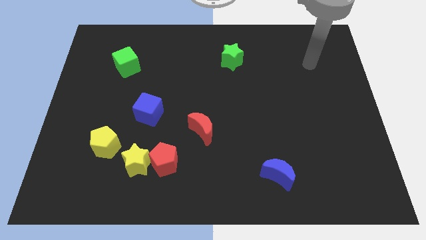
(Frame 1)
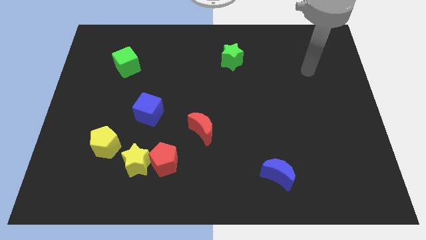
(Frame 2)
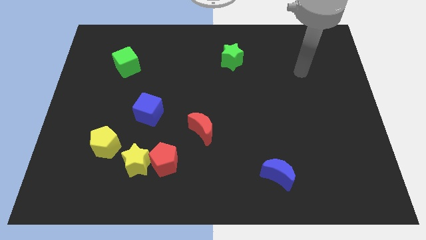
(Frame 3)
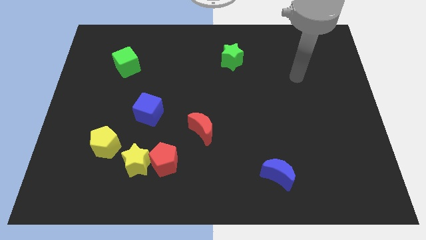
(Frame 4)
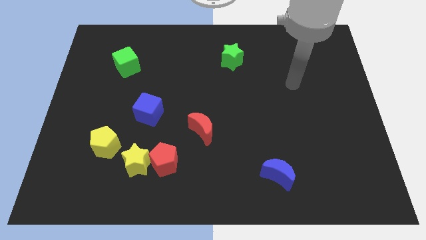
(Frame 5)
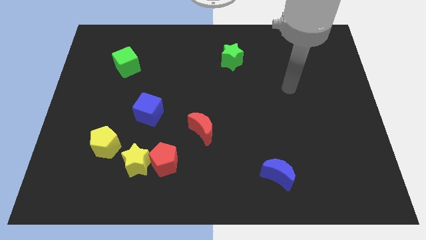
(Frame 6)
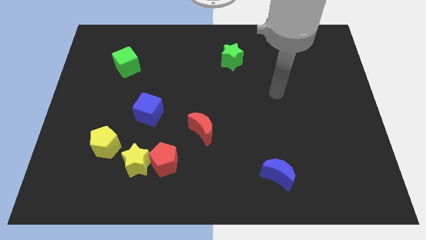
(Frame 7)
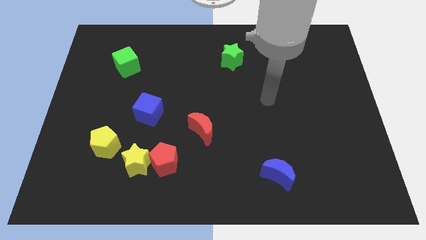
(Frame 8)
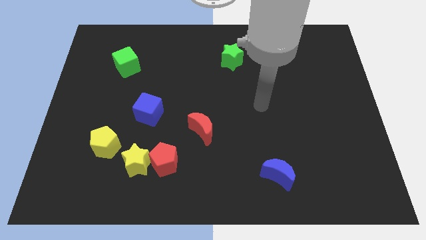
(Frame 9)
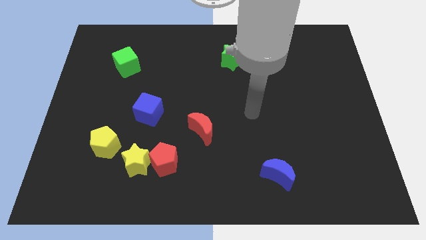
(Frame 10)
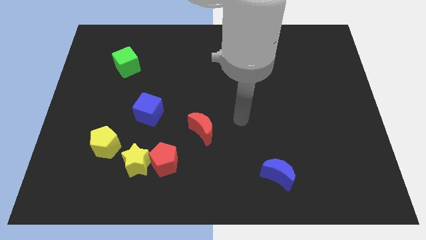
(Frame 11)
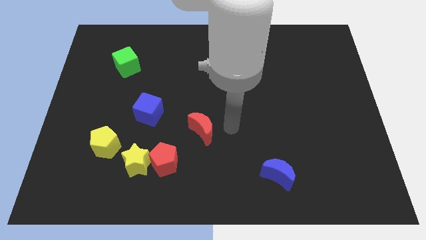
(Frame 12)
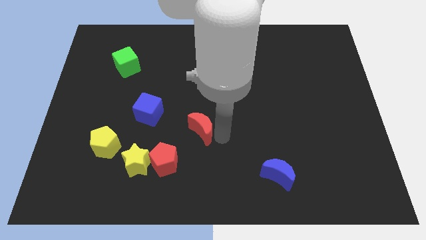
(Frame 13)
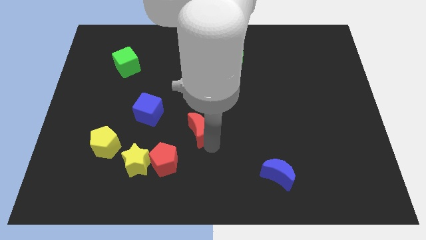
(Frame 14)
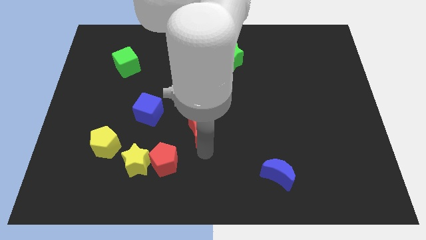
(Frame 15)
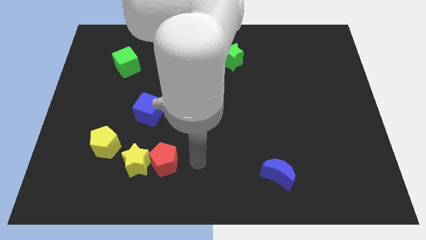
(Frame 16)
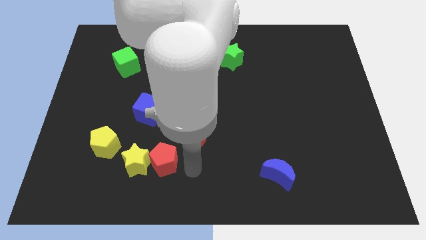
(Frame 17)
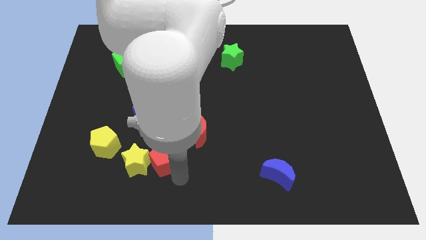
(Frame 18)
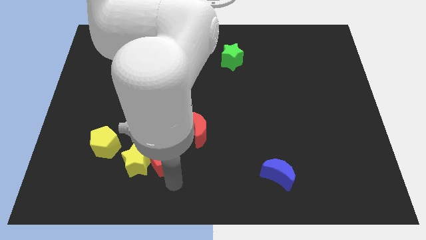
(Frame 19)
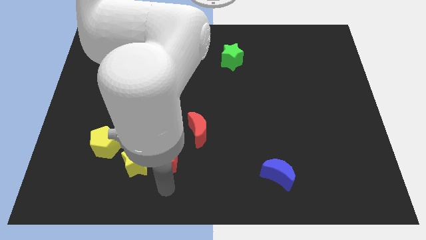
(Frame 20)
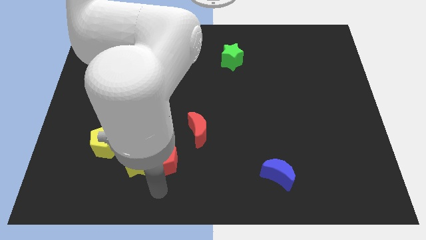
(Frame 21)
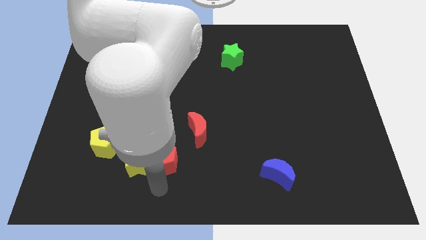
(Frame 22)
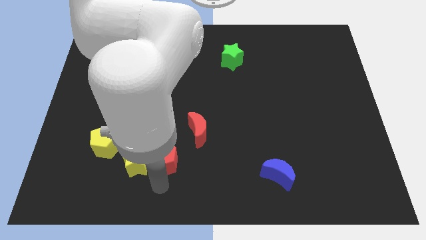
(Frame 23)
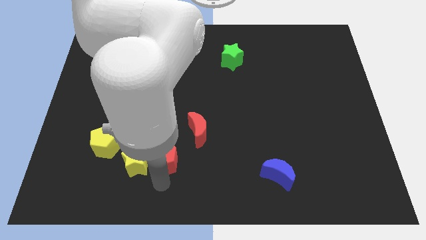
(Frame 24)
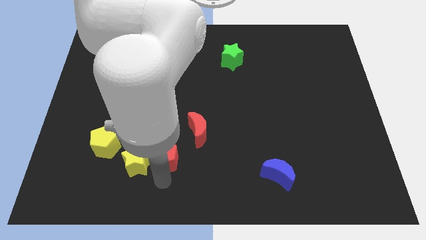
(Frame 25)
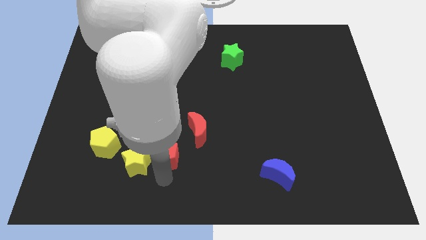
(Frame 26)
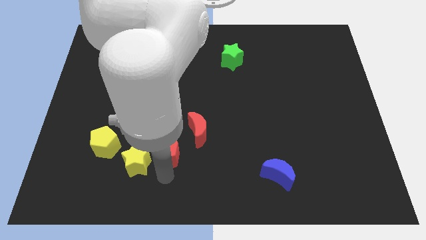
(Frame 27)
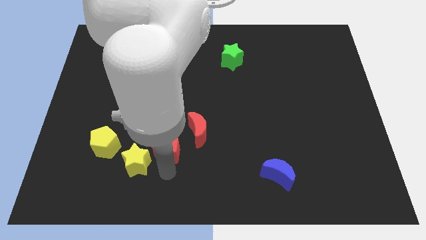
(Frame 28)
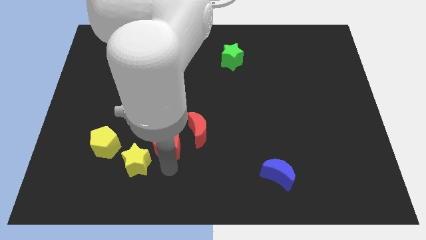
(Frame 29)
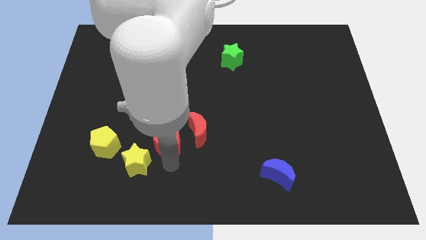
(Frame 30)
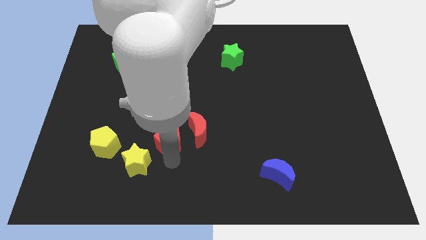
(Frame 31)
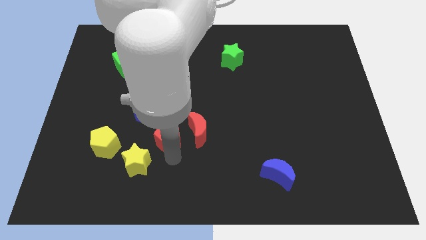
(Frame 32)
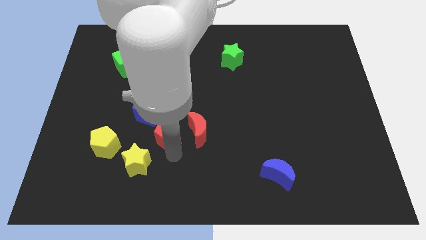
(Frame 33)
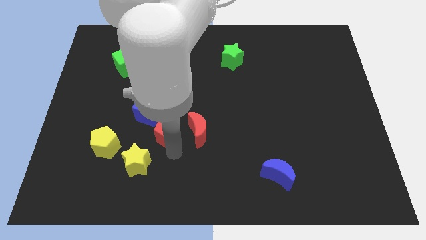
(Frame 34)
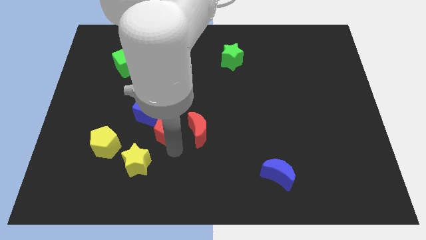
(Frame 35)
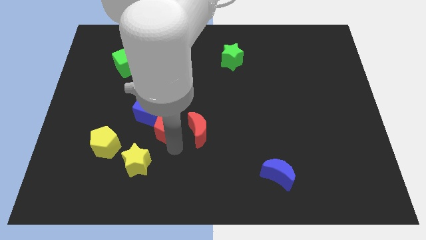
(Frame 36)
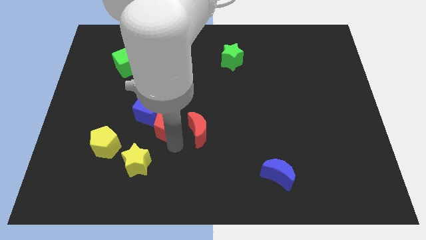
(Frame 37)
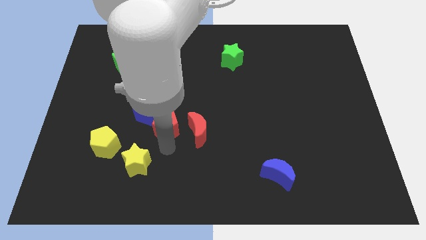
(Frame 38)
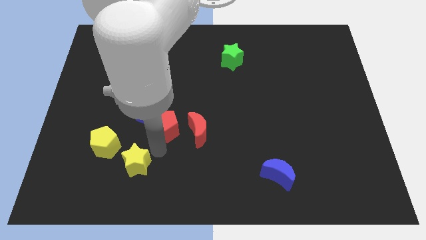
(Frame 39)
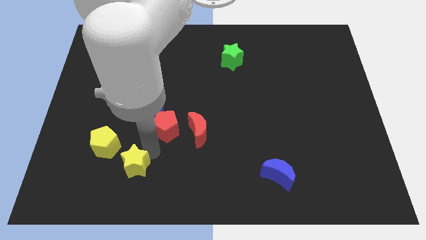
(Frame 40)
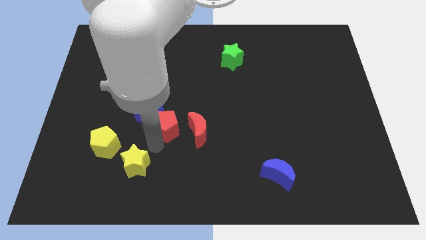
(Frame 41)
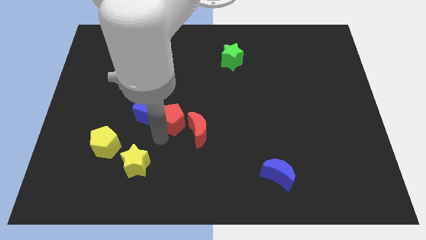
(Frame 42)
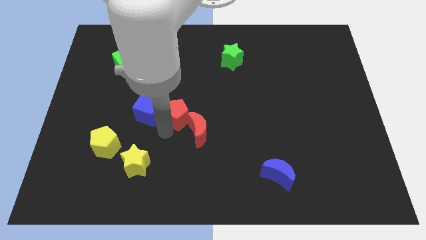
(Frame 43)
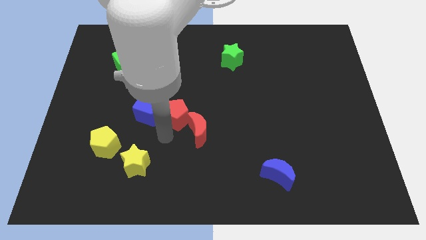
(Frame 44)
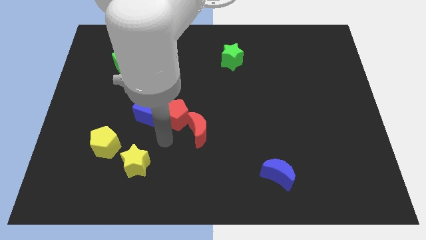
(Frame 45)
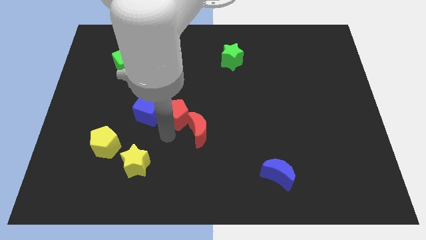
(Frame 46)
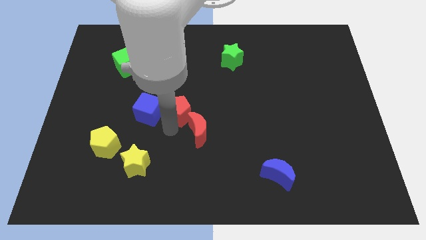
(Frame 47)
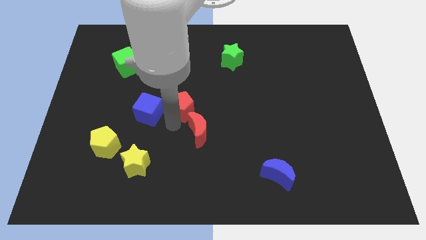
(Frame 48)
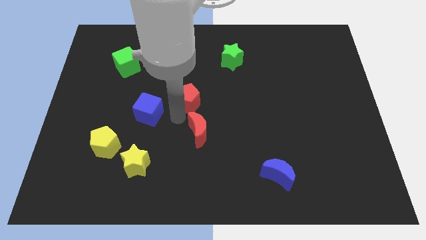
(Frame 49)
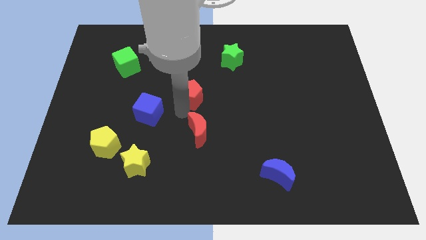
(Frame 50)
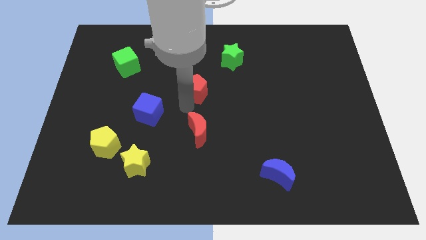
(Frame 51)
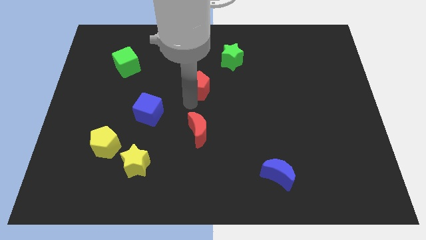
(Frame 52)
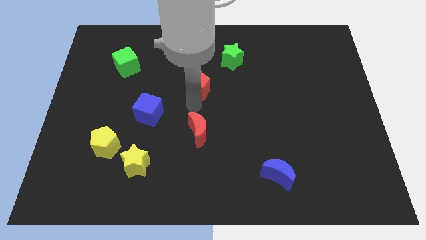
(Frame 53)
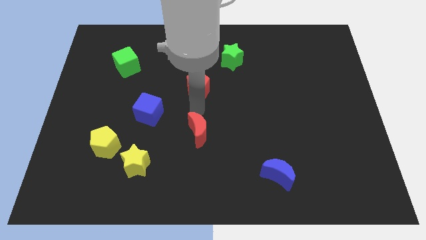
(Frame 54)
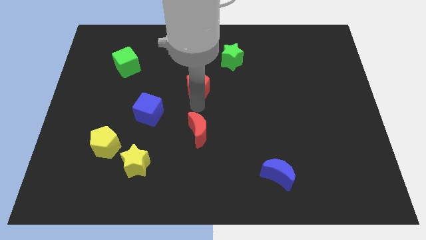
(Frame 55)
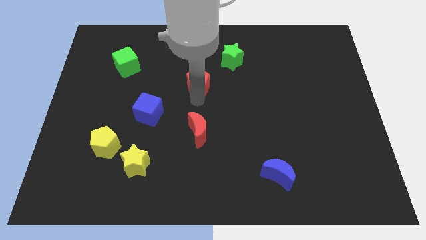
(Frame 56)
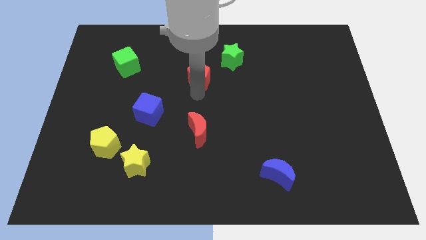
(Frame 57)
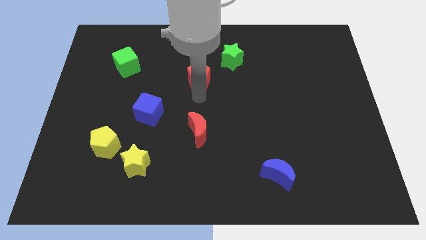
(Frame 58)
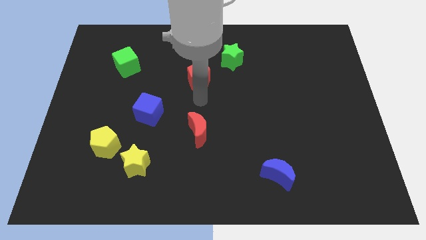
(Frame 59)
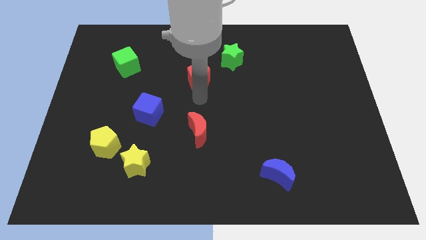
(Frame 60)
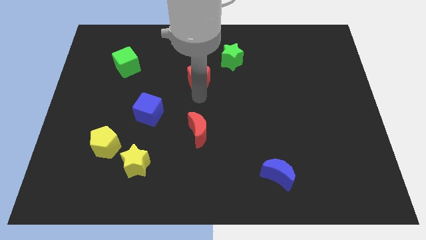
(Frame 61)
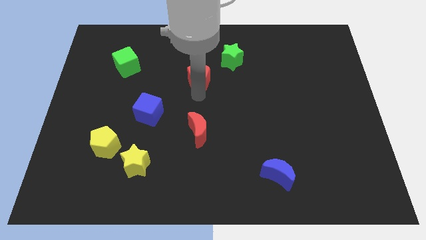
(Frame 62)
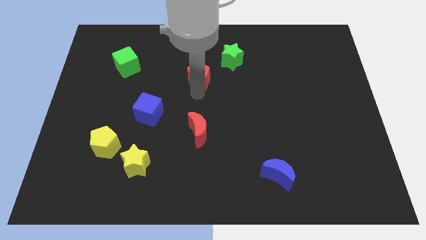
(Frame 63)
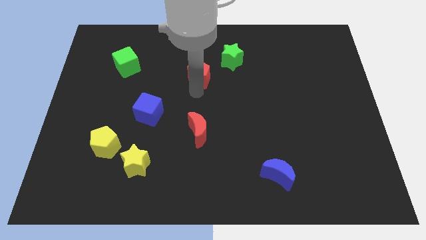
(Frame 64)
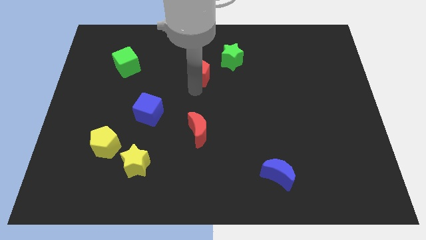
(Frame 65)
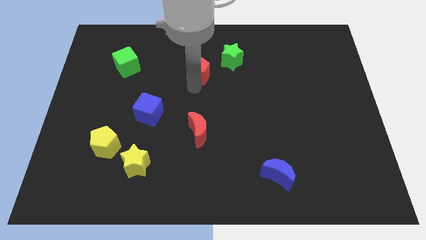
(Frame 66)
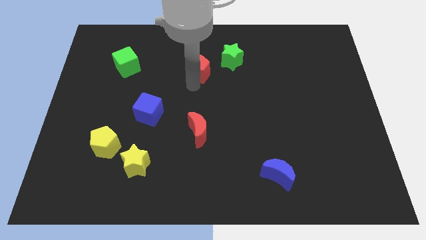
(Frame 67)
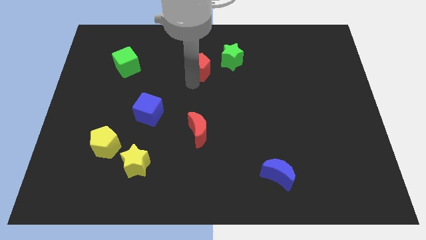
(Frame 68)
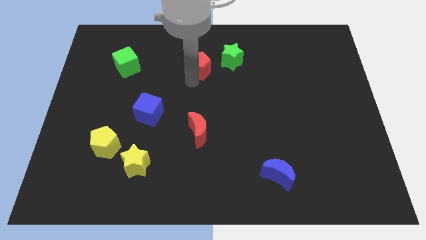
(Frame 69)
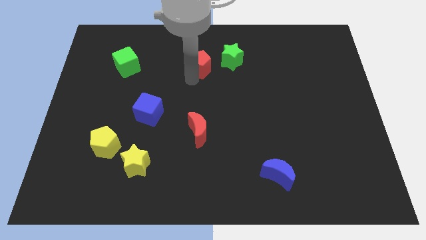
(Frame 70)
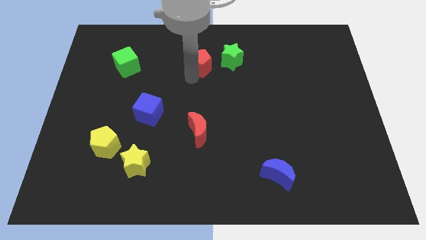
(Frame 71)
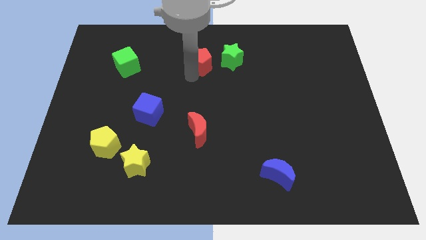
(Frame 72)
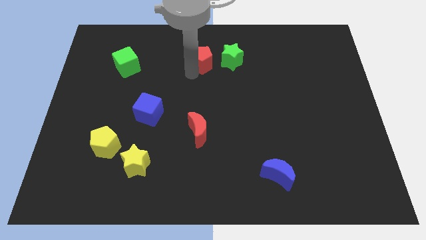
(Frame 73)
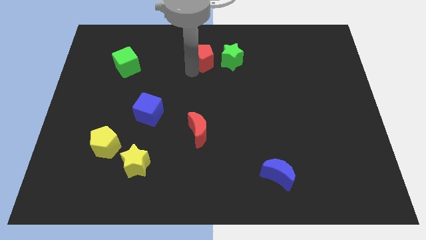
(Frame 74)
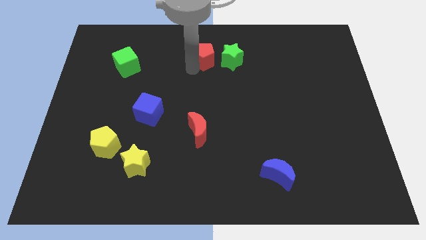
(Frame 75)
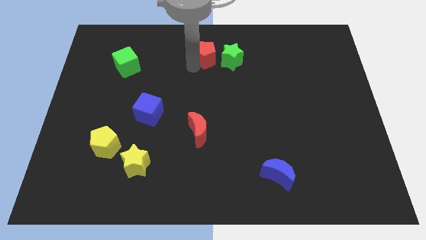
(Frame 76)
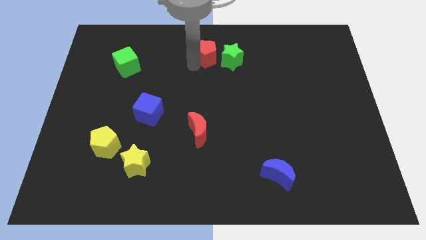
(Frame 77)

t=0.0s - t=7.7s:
move the red pentagon to the towards your base
